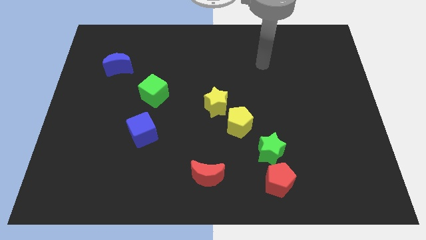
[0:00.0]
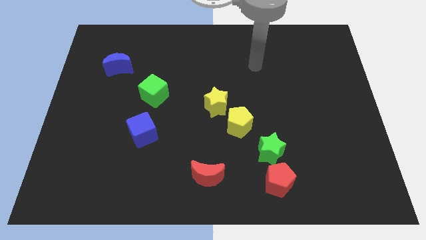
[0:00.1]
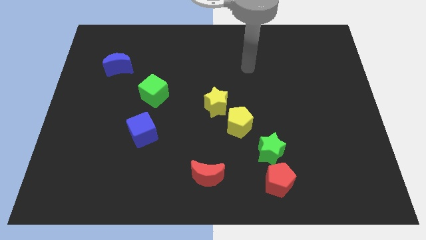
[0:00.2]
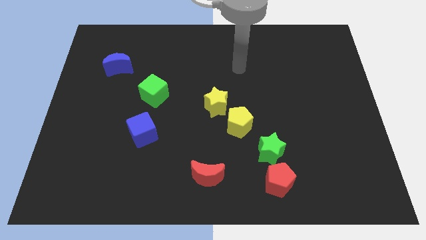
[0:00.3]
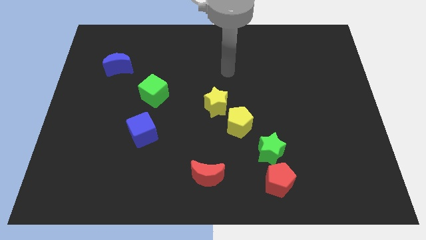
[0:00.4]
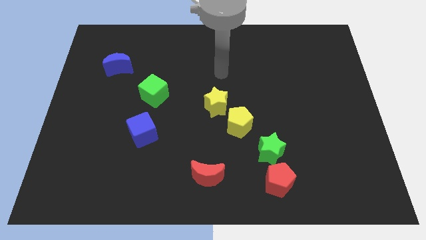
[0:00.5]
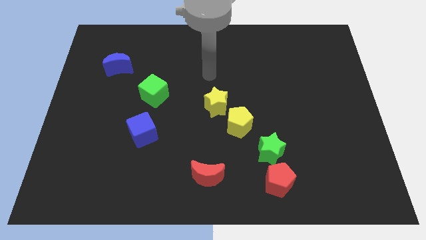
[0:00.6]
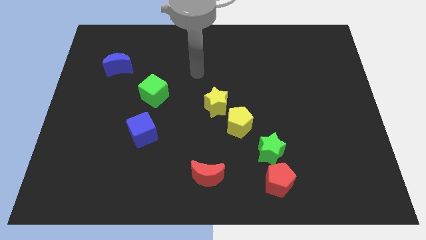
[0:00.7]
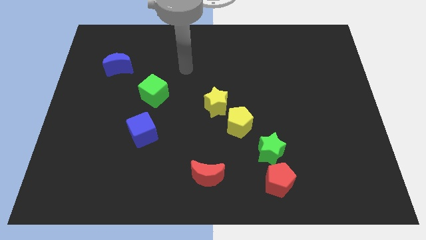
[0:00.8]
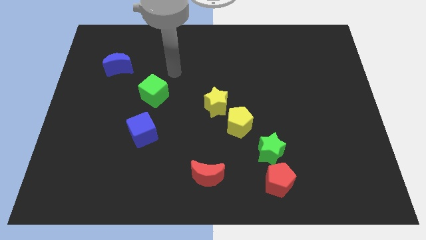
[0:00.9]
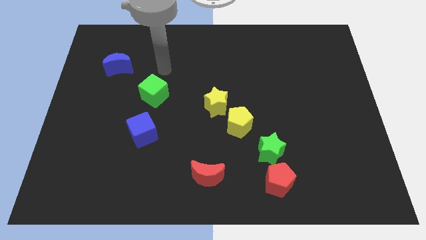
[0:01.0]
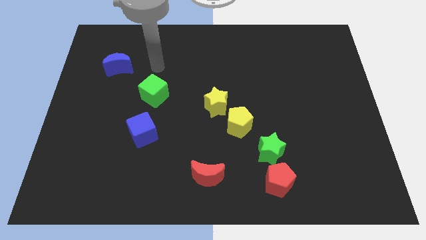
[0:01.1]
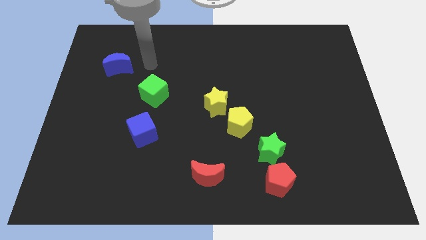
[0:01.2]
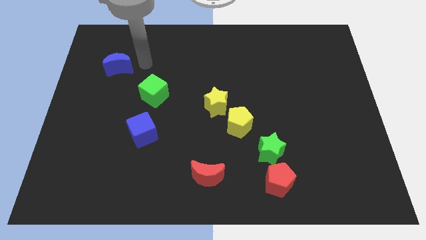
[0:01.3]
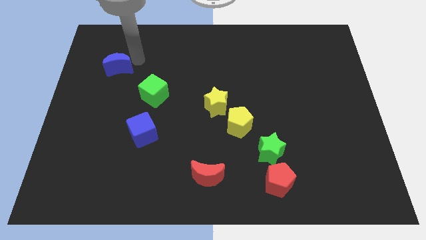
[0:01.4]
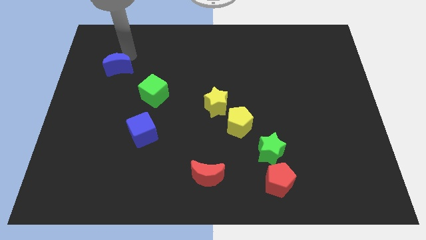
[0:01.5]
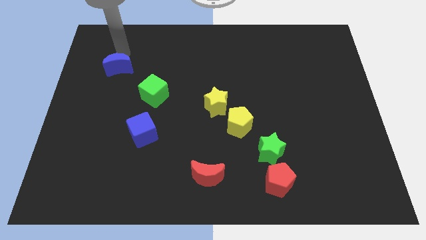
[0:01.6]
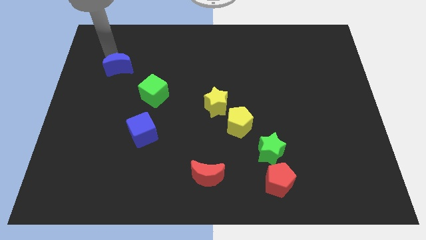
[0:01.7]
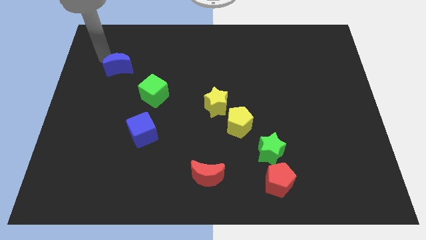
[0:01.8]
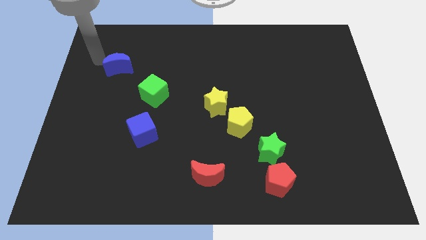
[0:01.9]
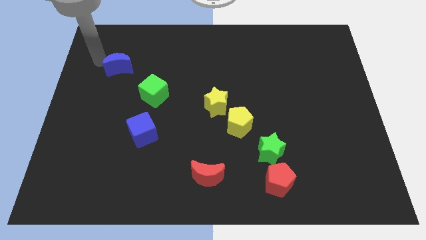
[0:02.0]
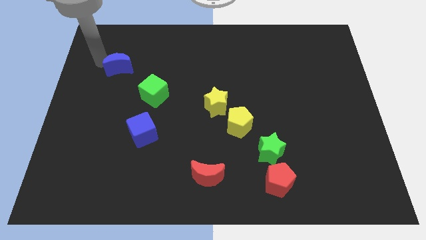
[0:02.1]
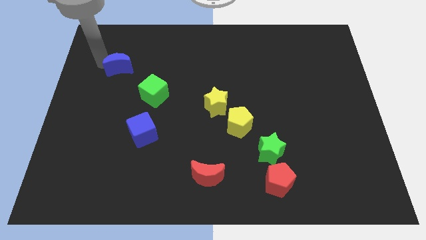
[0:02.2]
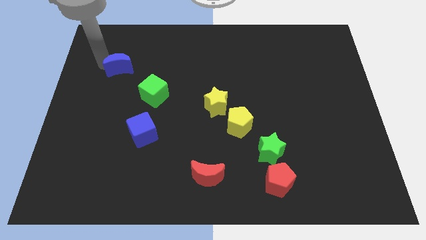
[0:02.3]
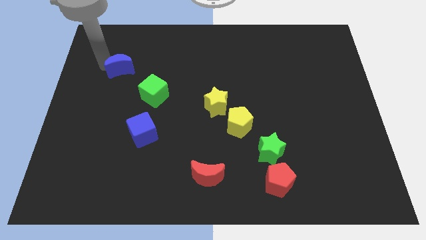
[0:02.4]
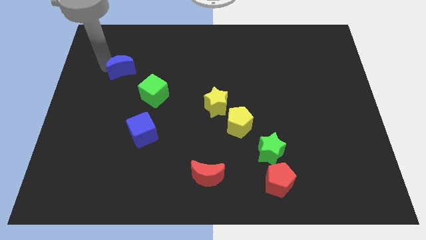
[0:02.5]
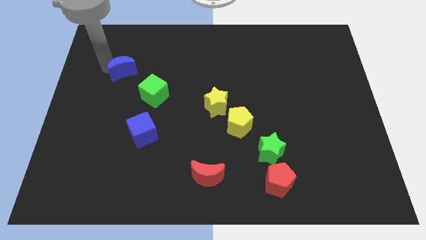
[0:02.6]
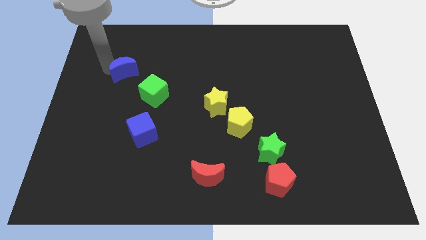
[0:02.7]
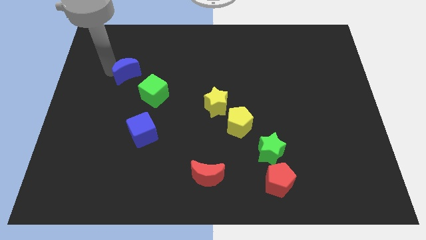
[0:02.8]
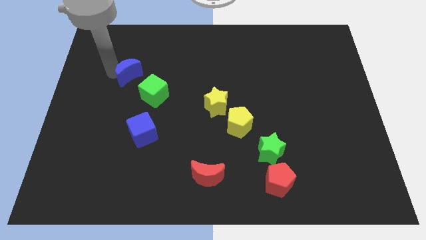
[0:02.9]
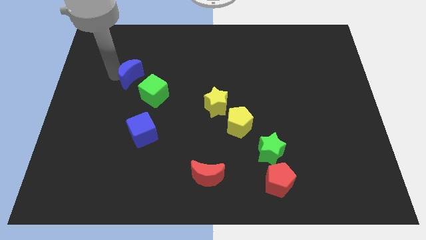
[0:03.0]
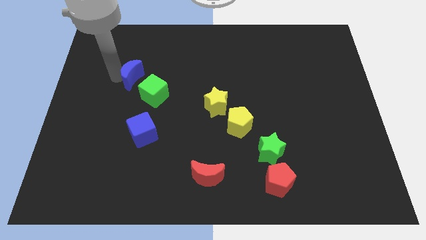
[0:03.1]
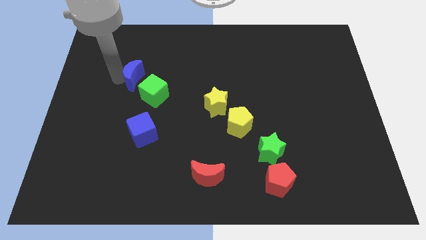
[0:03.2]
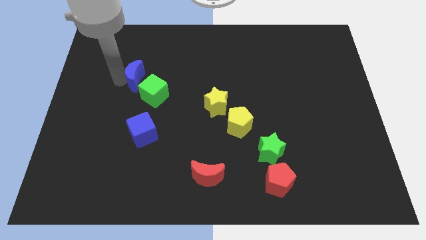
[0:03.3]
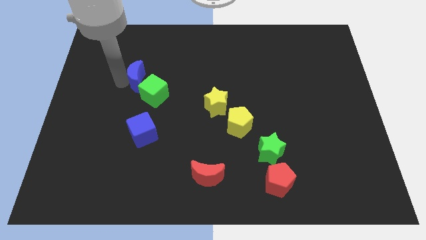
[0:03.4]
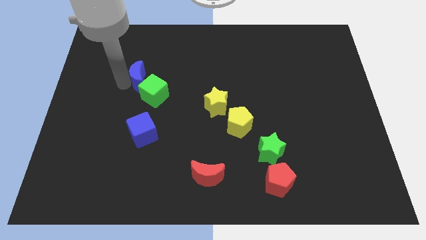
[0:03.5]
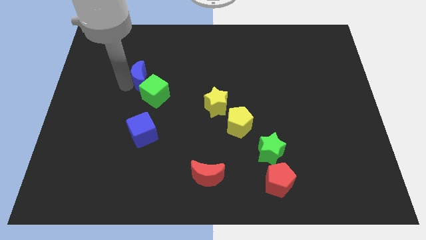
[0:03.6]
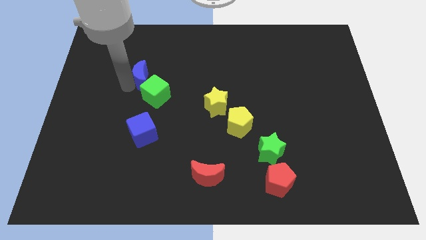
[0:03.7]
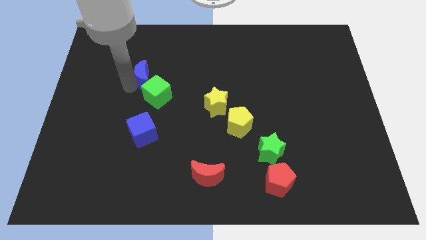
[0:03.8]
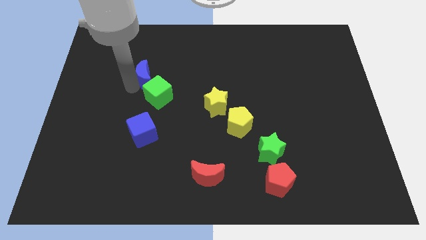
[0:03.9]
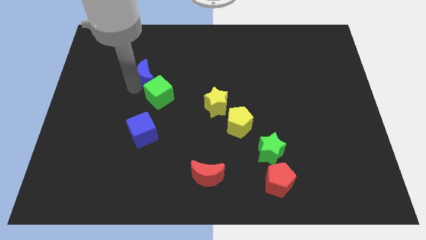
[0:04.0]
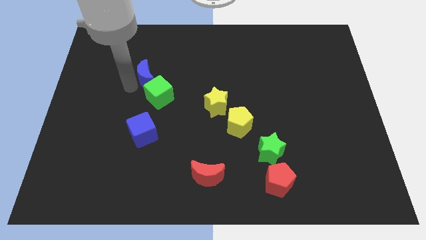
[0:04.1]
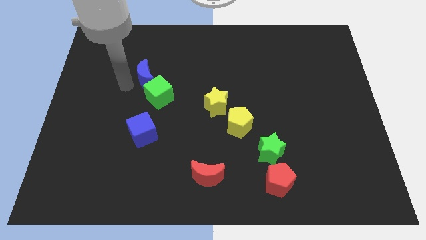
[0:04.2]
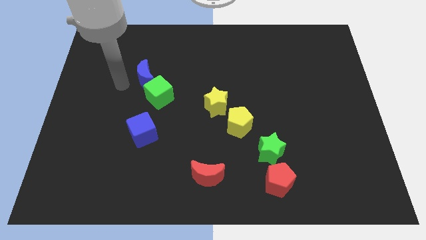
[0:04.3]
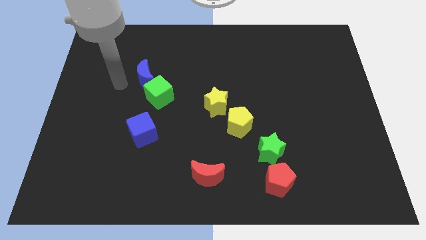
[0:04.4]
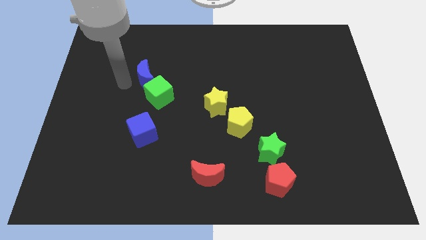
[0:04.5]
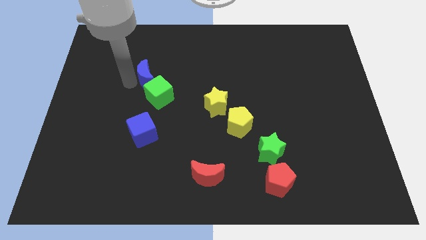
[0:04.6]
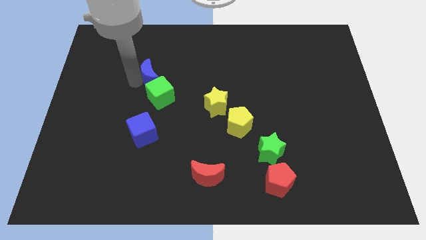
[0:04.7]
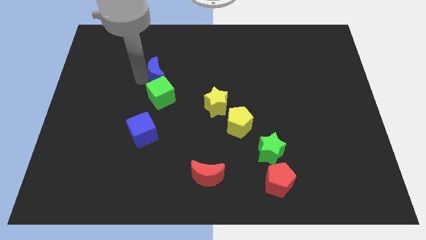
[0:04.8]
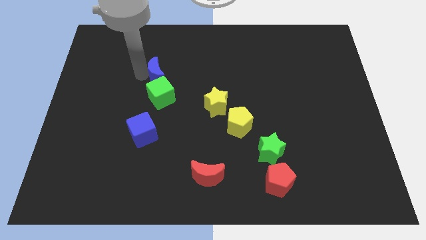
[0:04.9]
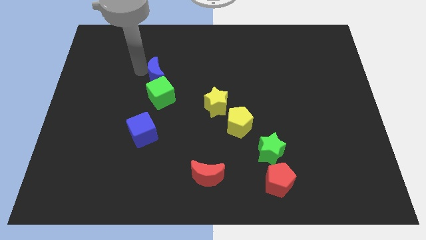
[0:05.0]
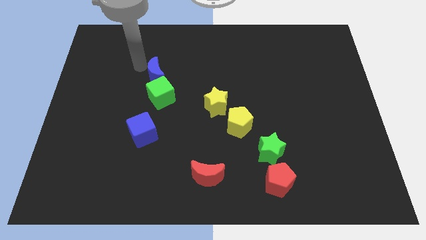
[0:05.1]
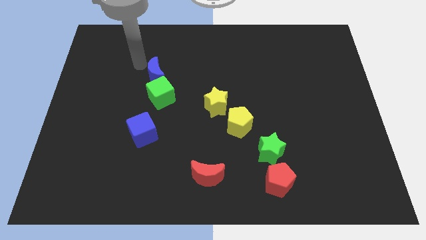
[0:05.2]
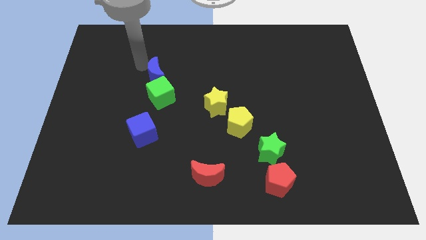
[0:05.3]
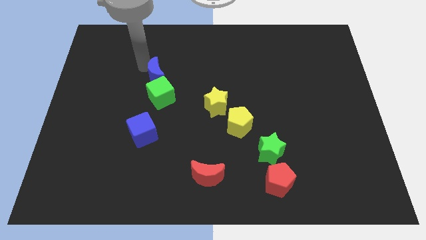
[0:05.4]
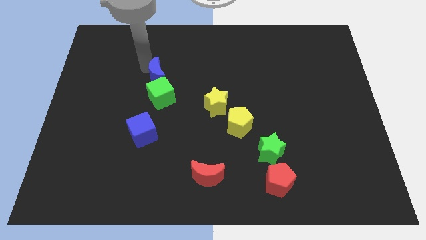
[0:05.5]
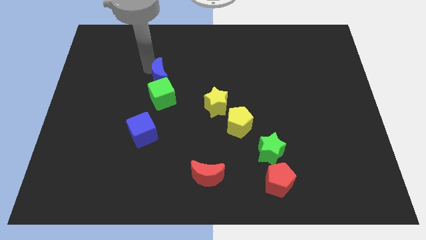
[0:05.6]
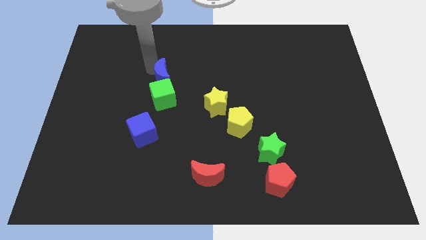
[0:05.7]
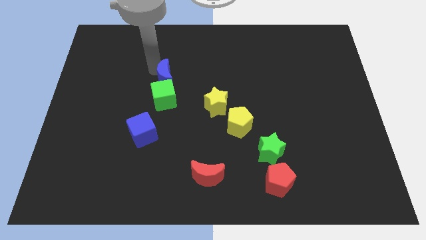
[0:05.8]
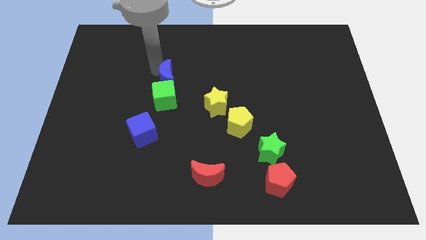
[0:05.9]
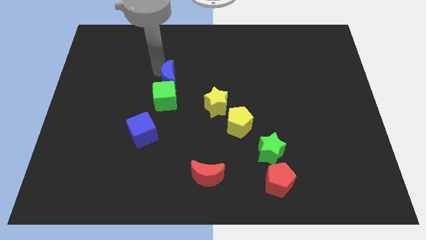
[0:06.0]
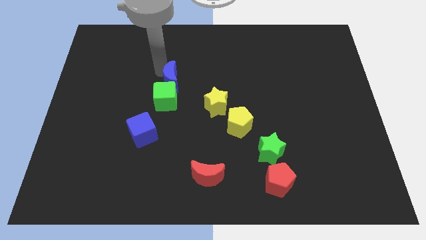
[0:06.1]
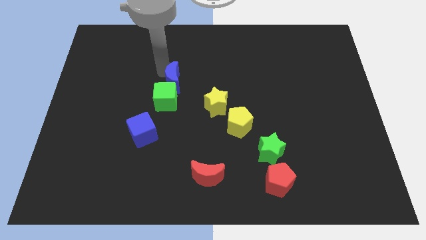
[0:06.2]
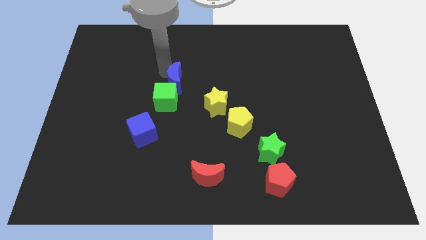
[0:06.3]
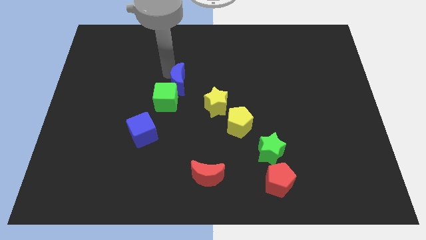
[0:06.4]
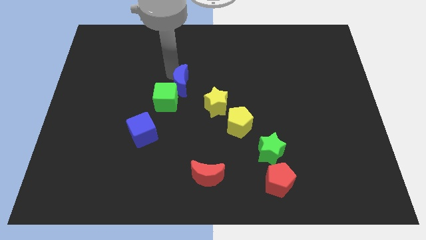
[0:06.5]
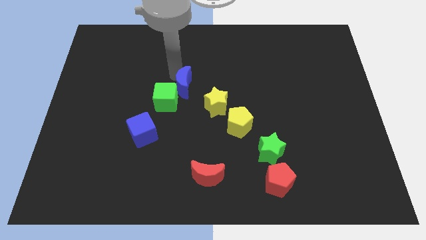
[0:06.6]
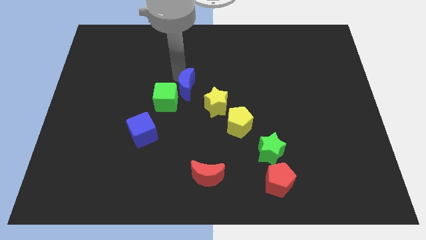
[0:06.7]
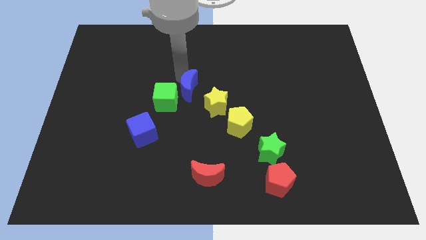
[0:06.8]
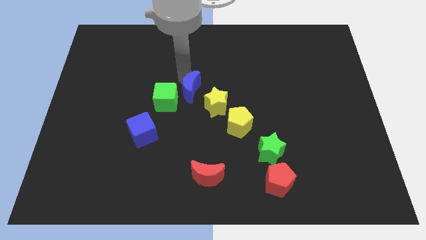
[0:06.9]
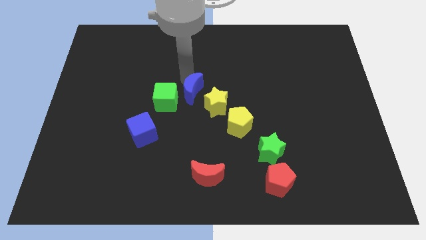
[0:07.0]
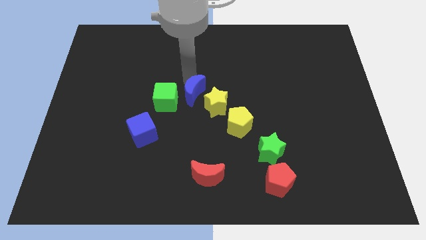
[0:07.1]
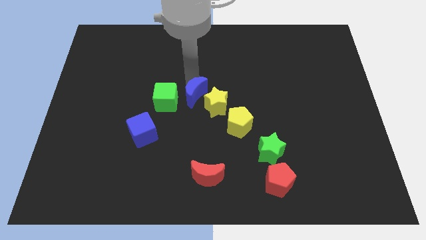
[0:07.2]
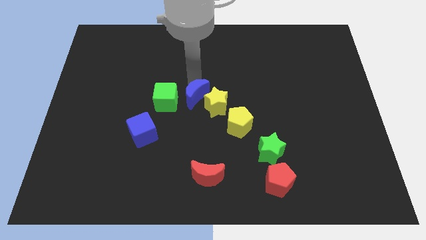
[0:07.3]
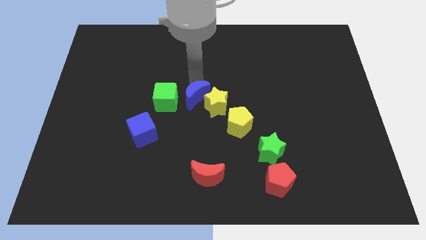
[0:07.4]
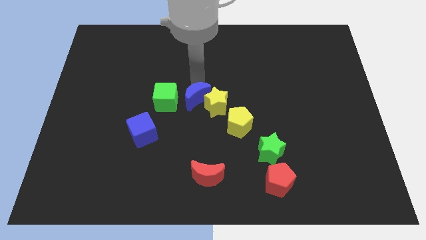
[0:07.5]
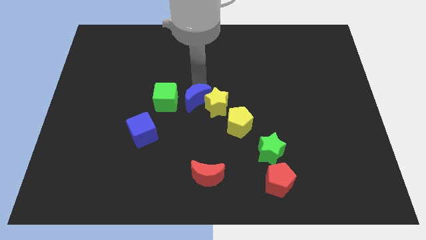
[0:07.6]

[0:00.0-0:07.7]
move the blue moon down and right diagonally

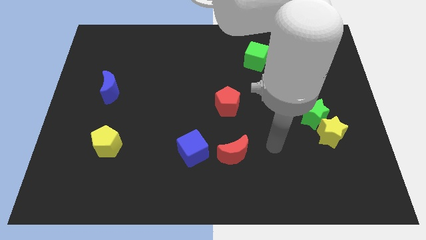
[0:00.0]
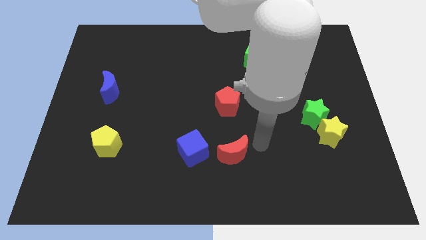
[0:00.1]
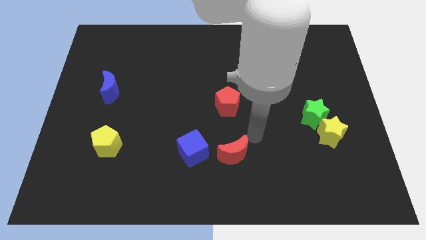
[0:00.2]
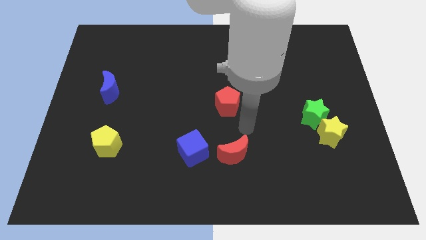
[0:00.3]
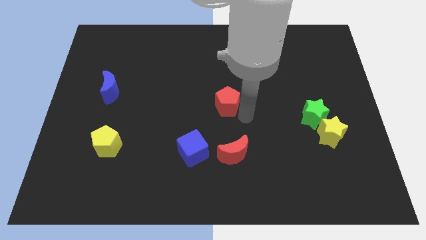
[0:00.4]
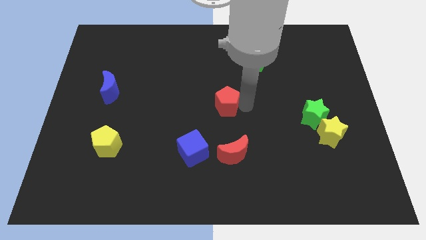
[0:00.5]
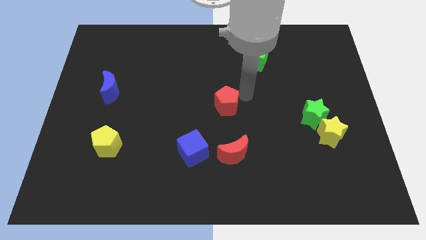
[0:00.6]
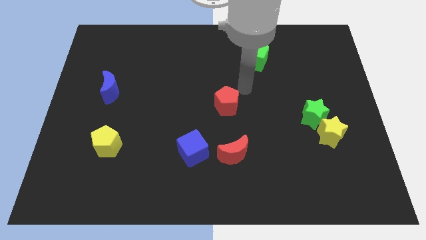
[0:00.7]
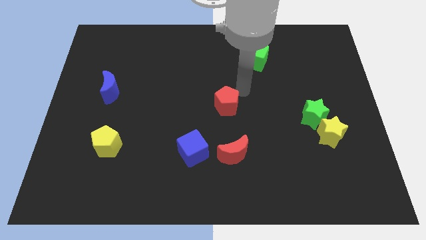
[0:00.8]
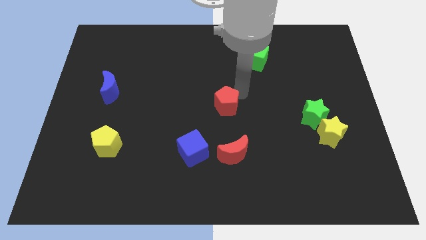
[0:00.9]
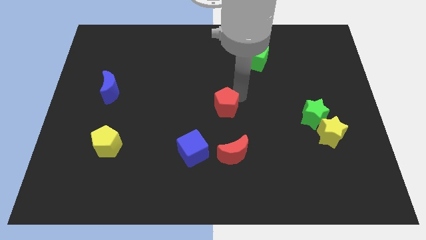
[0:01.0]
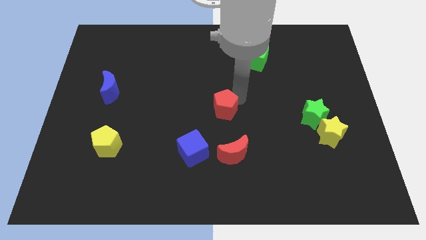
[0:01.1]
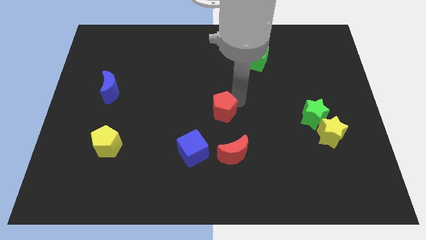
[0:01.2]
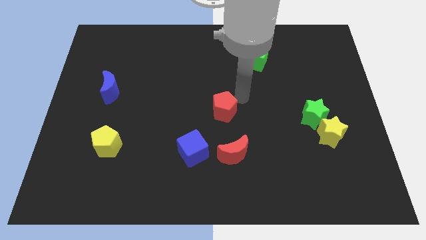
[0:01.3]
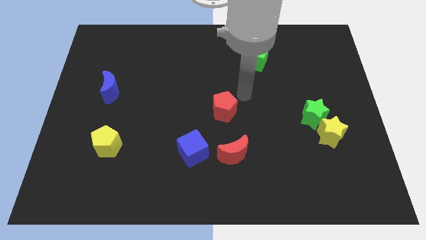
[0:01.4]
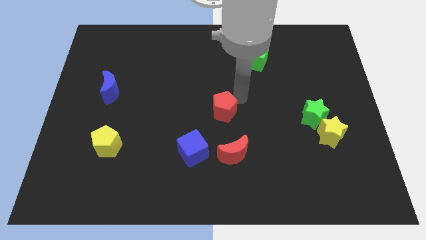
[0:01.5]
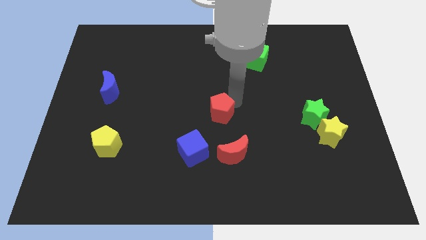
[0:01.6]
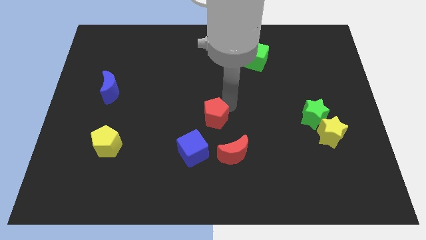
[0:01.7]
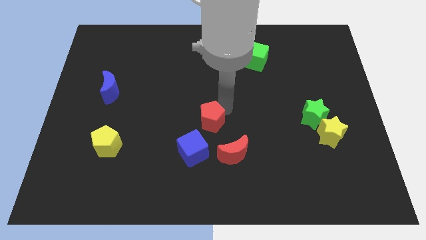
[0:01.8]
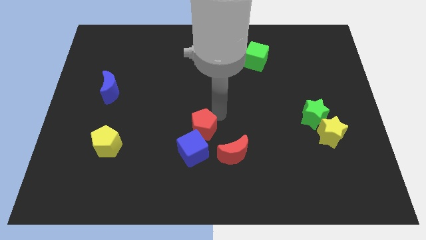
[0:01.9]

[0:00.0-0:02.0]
move the red pentagon diagonally down and left a little
